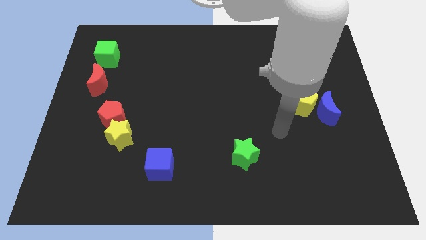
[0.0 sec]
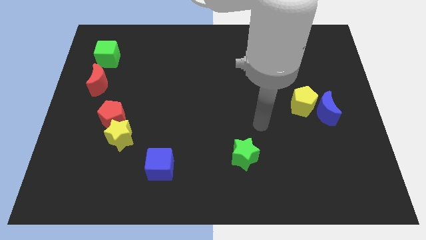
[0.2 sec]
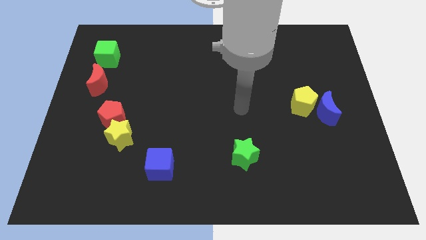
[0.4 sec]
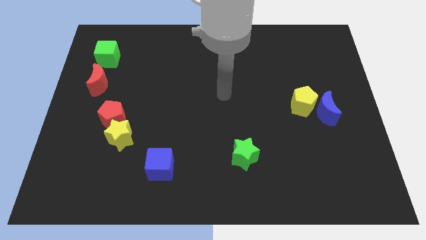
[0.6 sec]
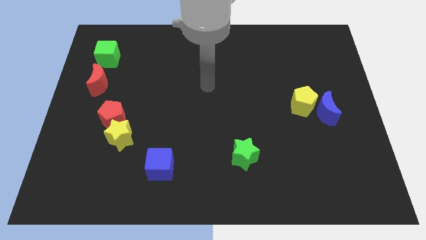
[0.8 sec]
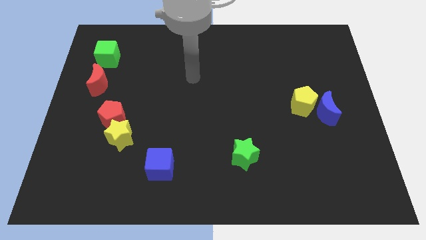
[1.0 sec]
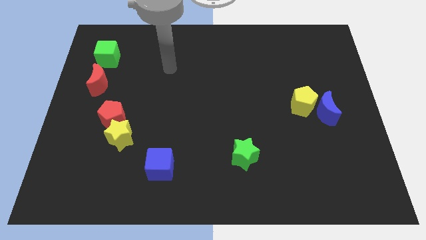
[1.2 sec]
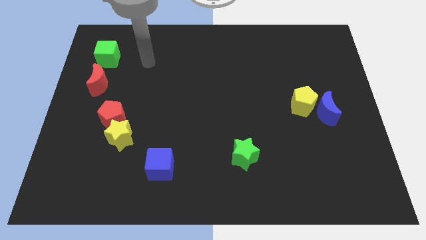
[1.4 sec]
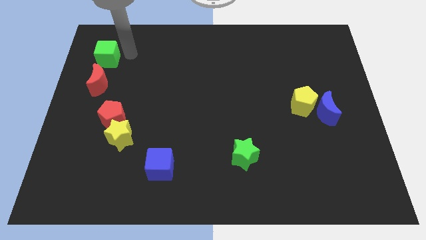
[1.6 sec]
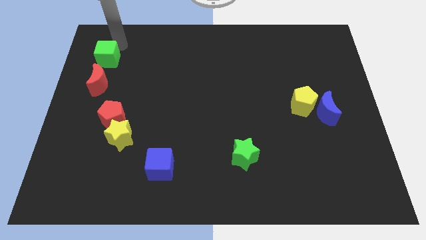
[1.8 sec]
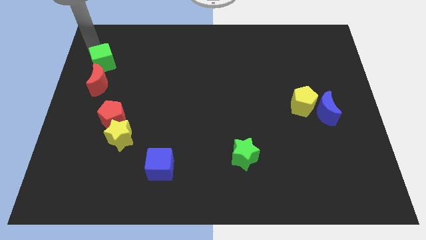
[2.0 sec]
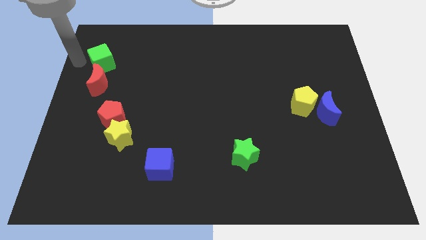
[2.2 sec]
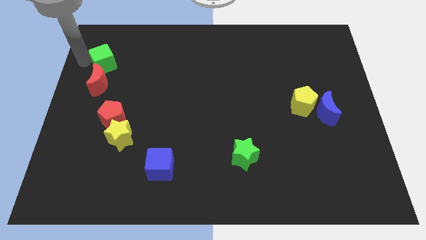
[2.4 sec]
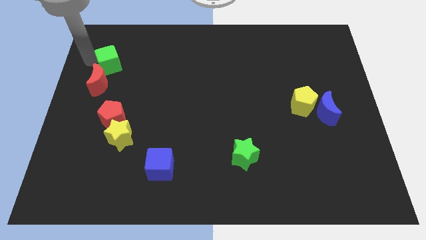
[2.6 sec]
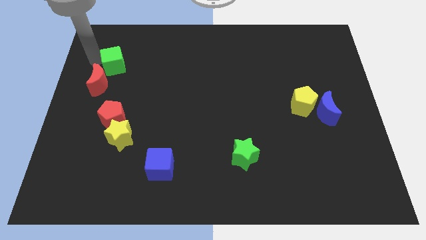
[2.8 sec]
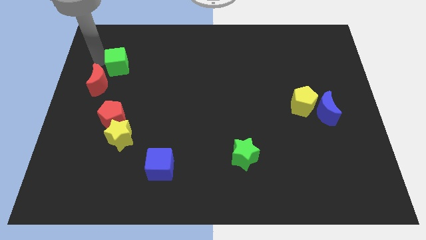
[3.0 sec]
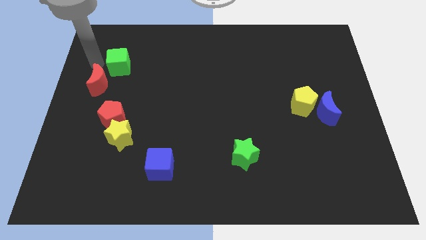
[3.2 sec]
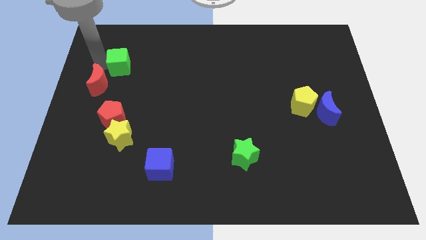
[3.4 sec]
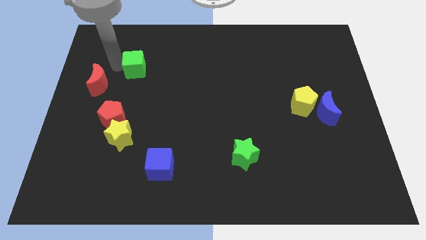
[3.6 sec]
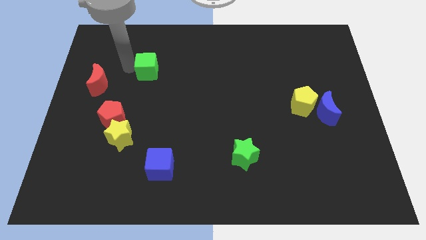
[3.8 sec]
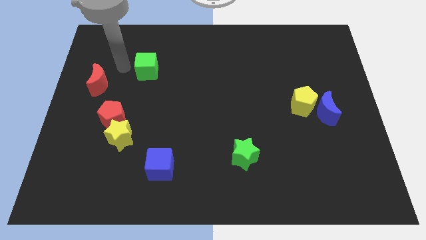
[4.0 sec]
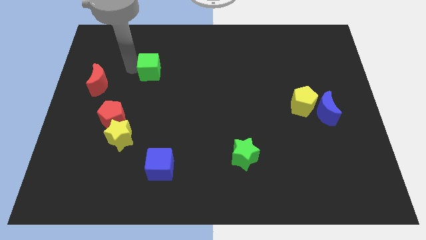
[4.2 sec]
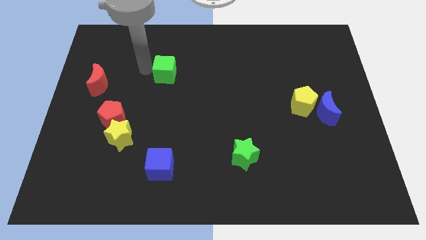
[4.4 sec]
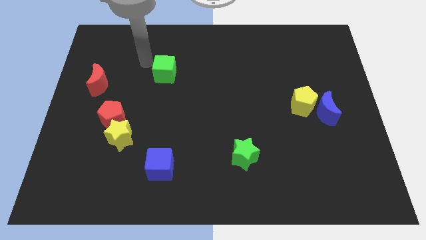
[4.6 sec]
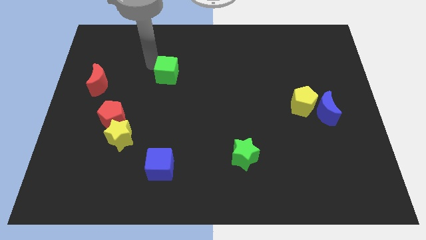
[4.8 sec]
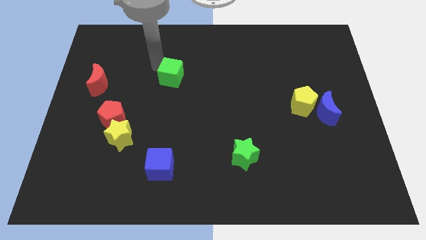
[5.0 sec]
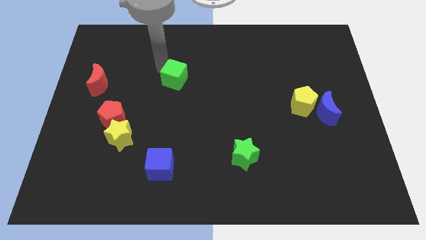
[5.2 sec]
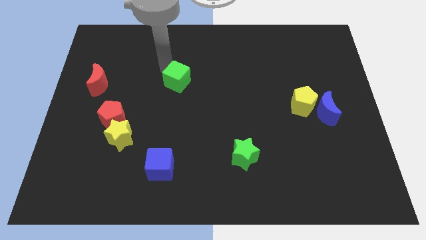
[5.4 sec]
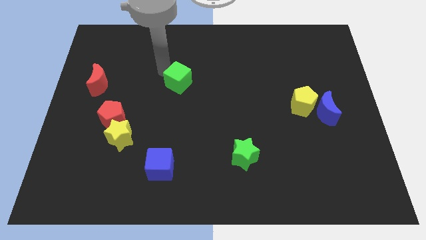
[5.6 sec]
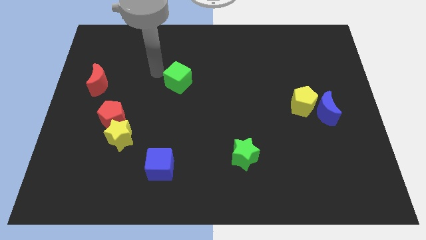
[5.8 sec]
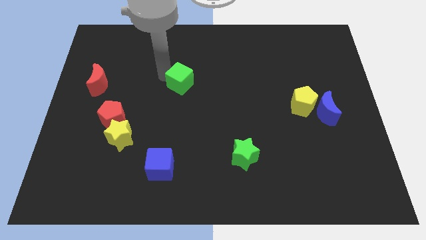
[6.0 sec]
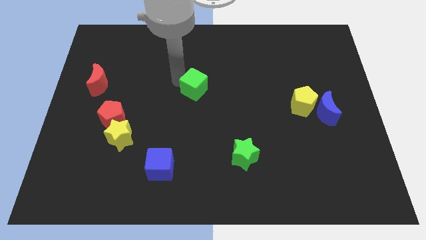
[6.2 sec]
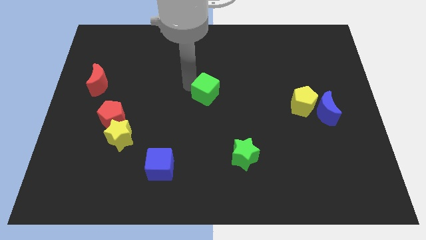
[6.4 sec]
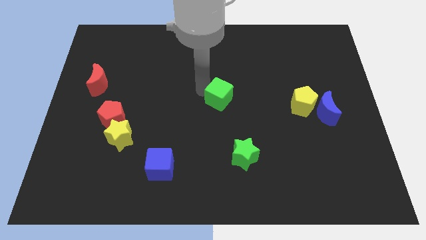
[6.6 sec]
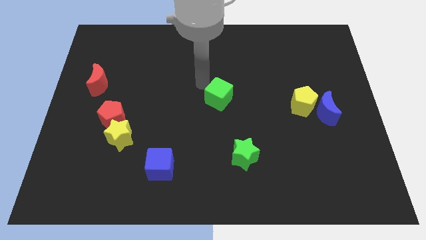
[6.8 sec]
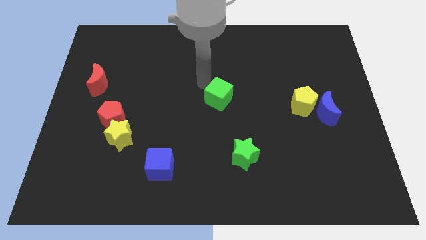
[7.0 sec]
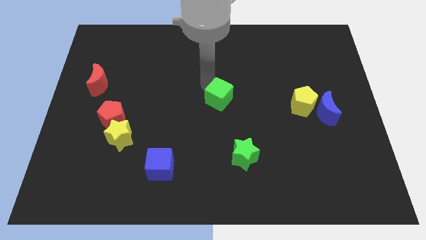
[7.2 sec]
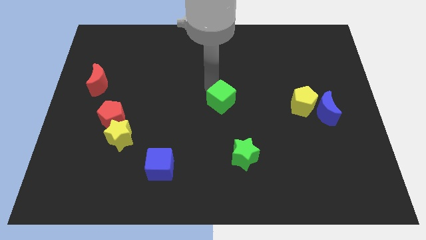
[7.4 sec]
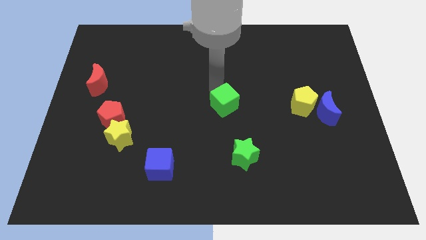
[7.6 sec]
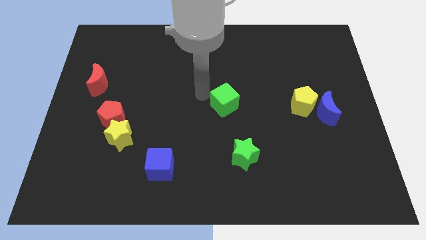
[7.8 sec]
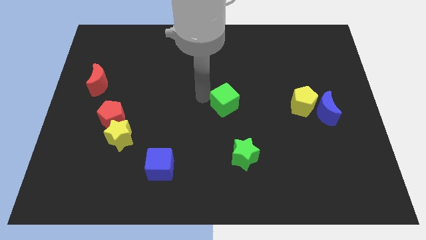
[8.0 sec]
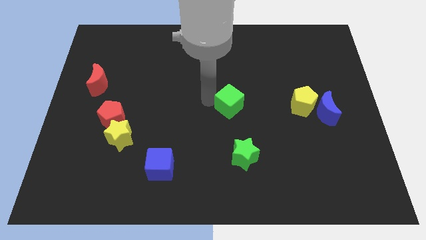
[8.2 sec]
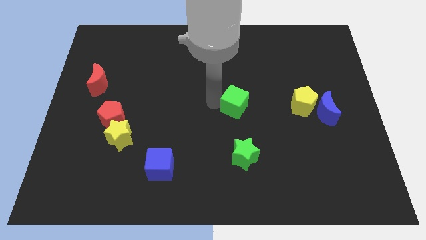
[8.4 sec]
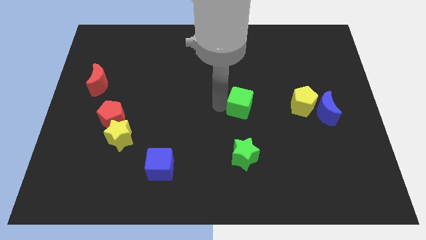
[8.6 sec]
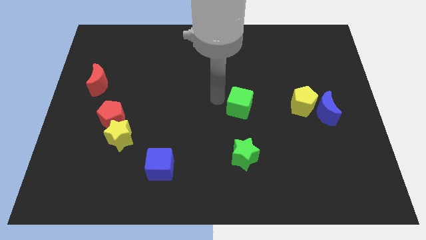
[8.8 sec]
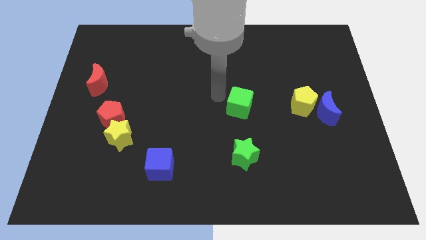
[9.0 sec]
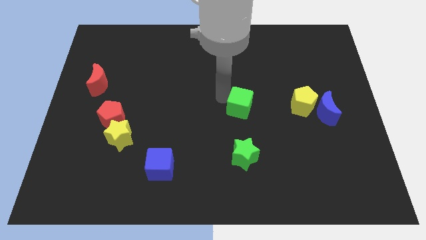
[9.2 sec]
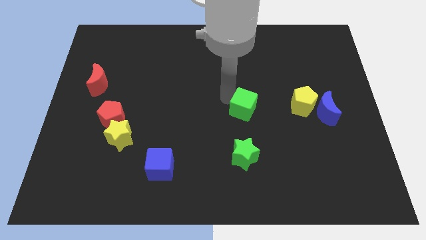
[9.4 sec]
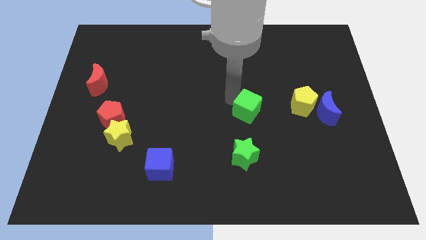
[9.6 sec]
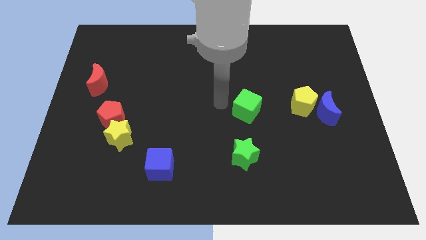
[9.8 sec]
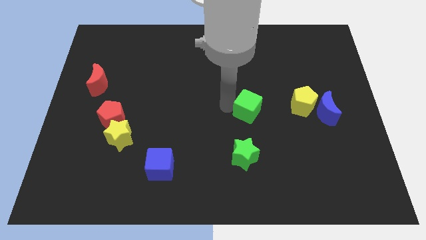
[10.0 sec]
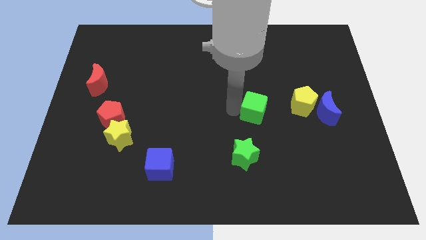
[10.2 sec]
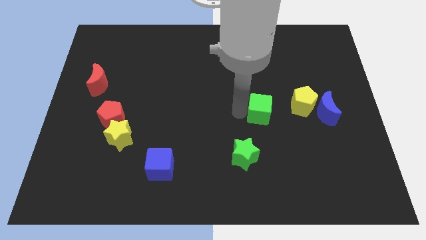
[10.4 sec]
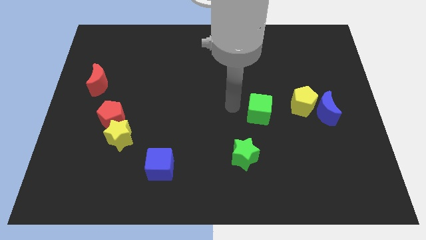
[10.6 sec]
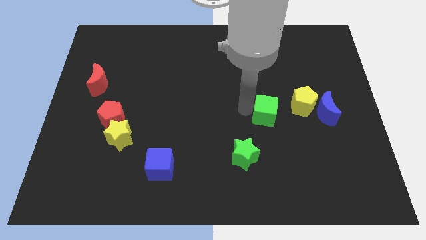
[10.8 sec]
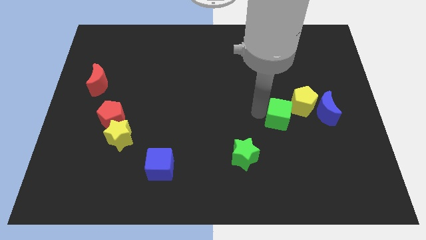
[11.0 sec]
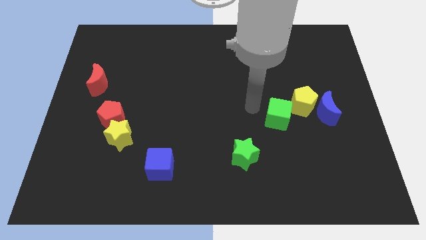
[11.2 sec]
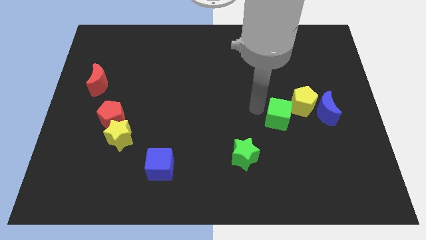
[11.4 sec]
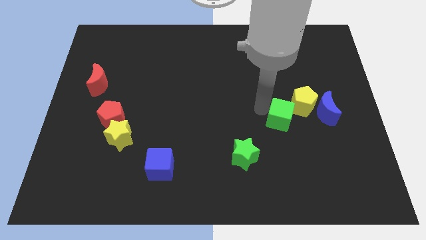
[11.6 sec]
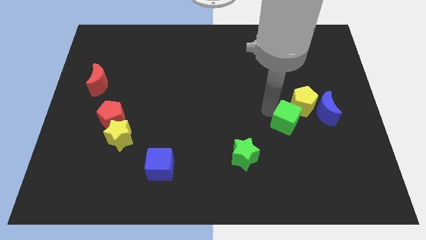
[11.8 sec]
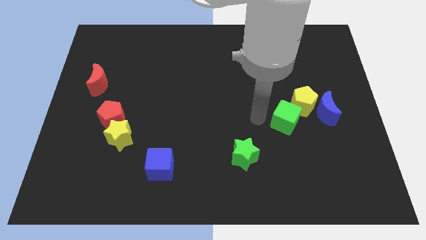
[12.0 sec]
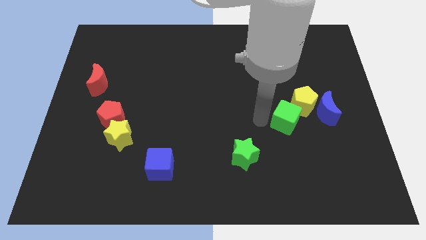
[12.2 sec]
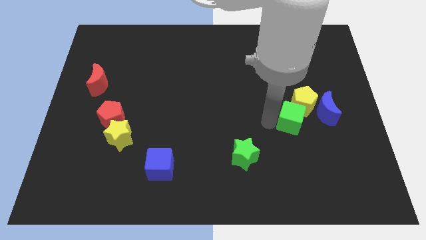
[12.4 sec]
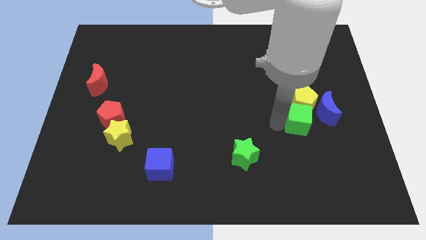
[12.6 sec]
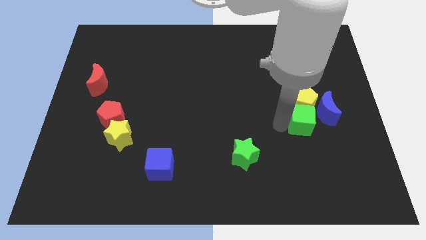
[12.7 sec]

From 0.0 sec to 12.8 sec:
push the green cube diagonally down and to the right of the yellow pentagon
